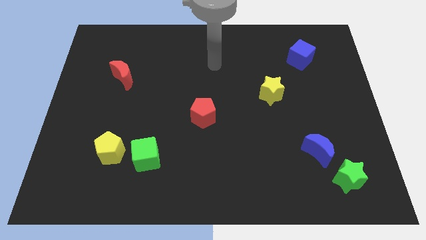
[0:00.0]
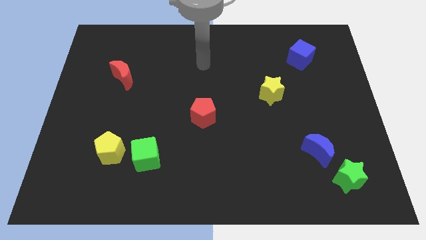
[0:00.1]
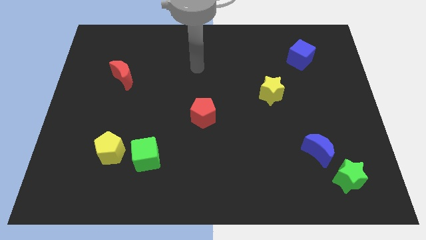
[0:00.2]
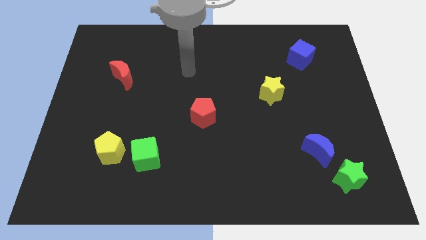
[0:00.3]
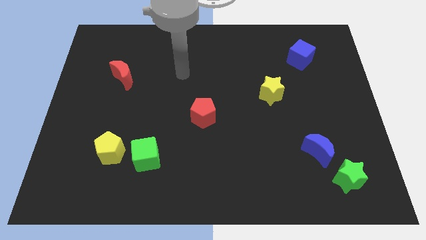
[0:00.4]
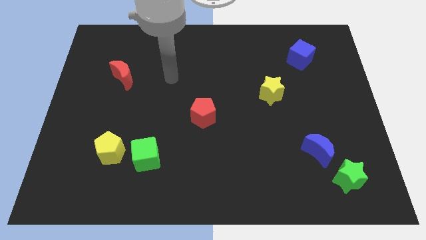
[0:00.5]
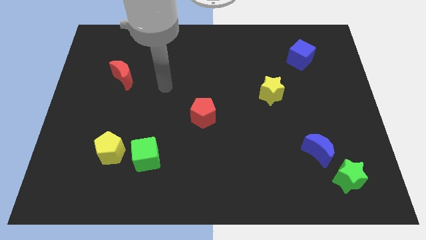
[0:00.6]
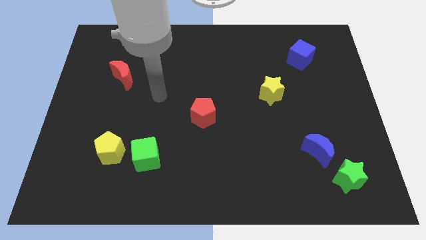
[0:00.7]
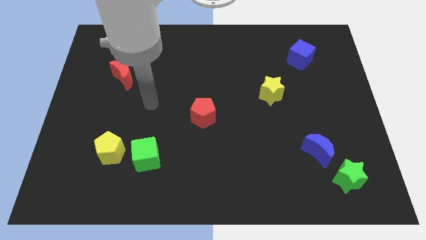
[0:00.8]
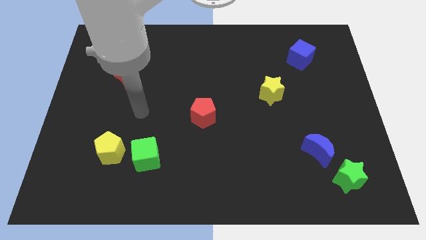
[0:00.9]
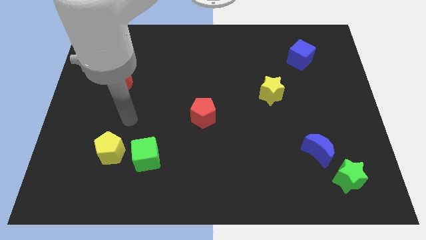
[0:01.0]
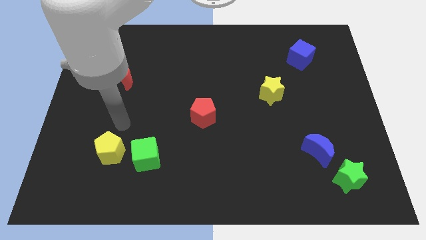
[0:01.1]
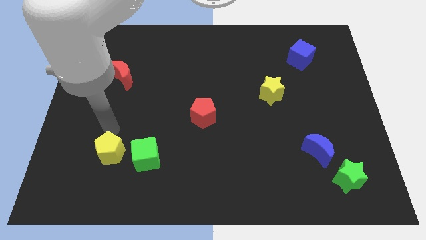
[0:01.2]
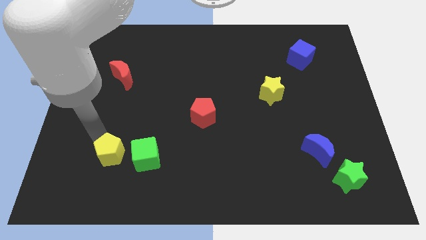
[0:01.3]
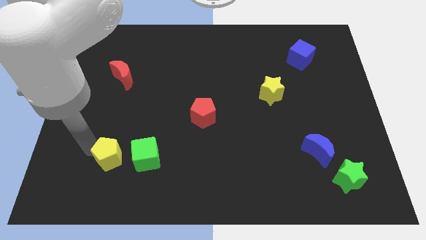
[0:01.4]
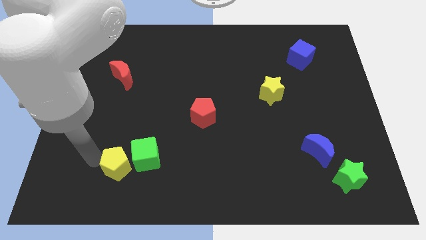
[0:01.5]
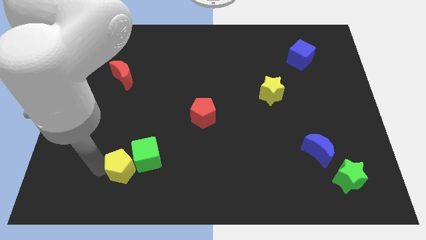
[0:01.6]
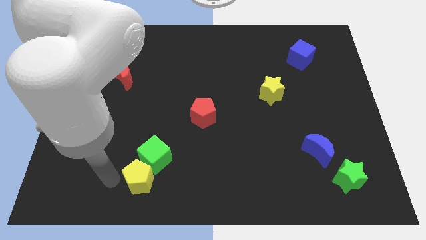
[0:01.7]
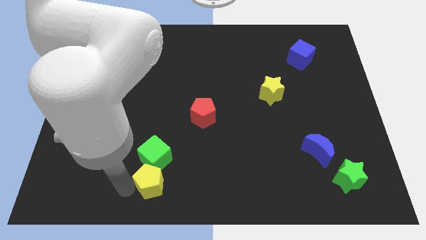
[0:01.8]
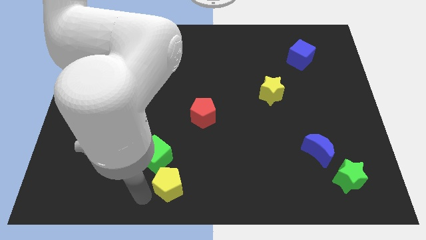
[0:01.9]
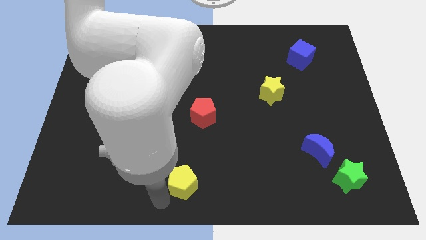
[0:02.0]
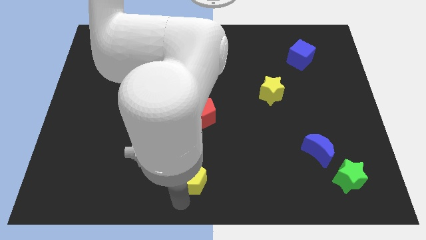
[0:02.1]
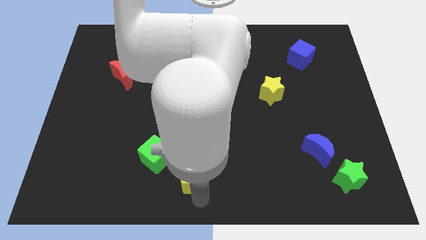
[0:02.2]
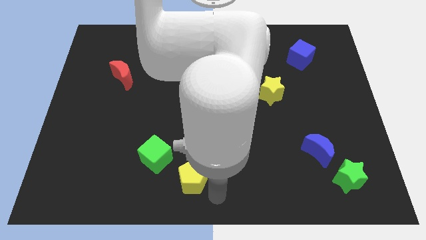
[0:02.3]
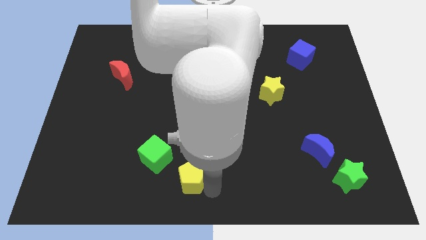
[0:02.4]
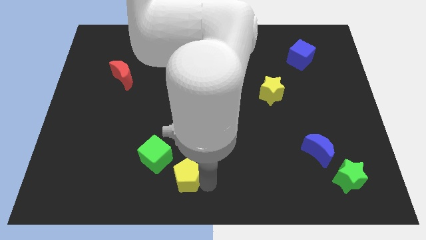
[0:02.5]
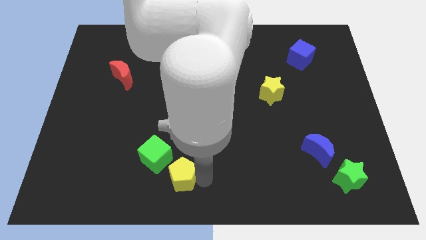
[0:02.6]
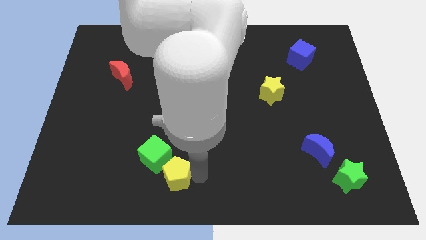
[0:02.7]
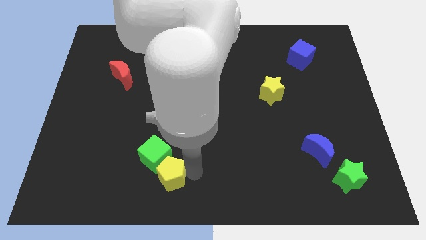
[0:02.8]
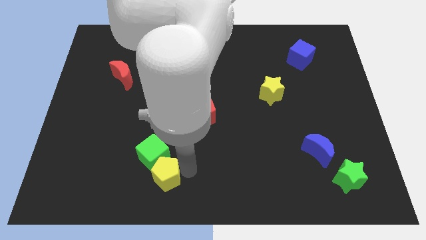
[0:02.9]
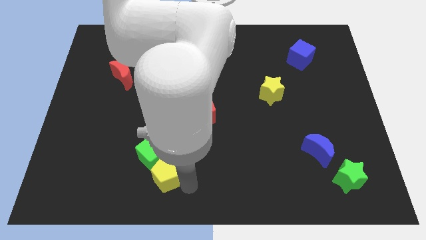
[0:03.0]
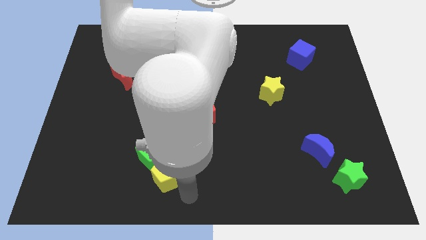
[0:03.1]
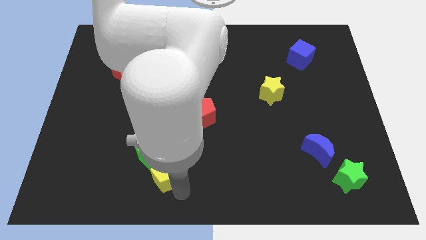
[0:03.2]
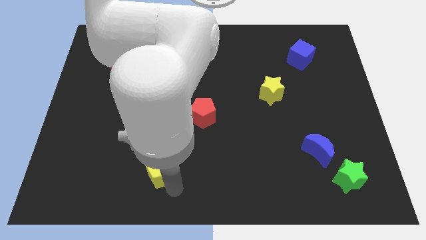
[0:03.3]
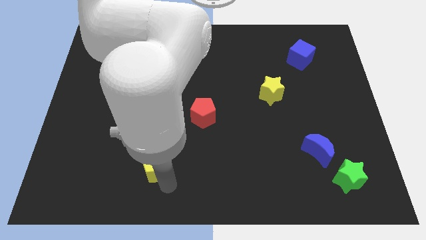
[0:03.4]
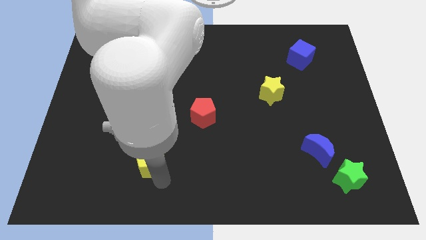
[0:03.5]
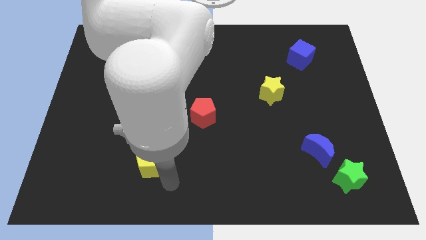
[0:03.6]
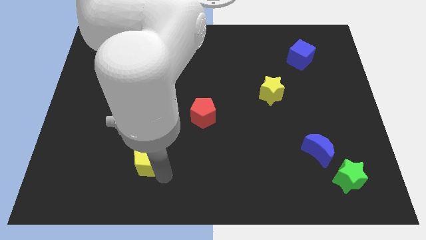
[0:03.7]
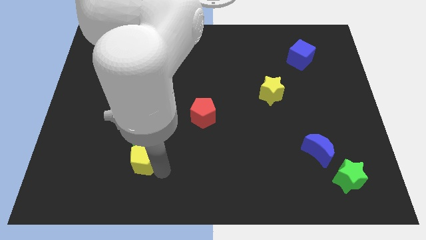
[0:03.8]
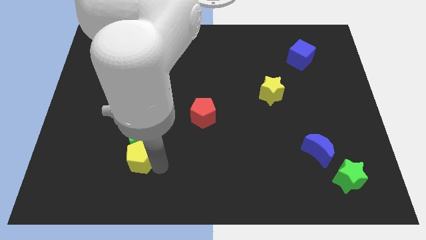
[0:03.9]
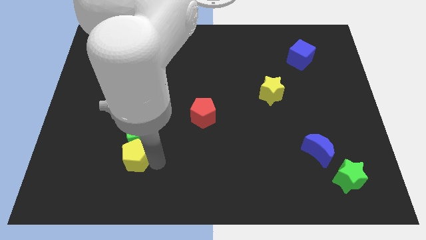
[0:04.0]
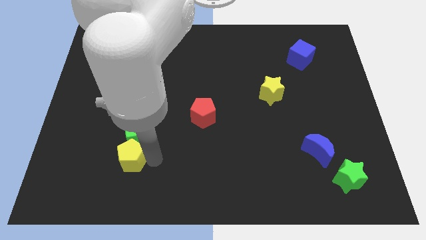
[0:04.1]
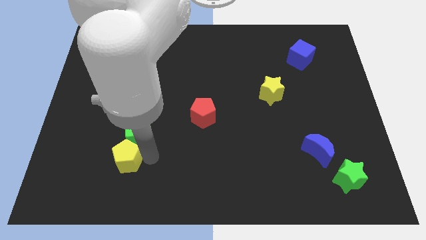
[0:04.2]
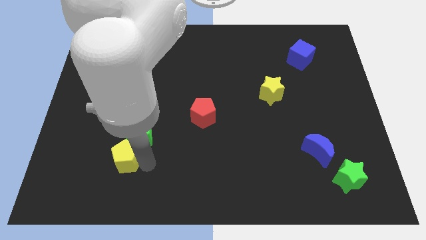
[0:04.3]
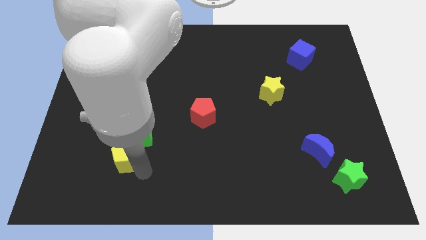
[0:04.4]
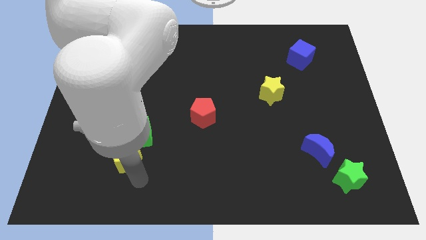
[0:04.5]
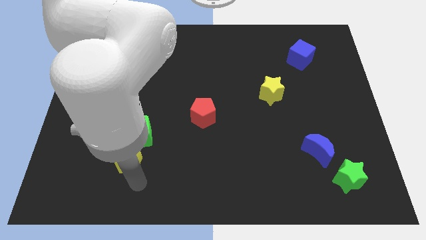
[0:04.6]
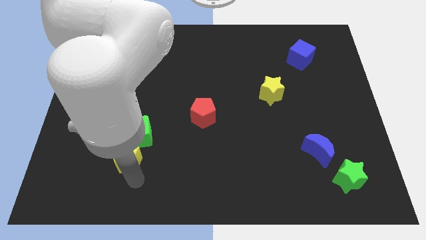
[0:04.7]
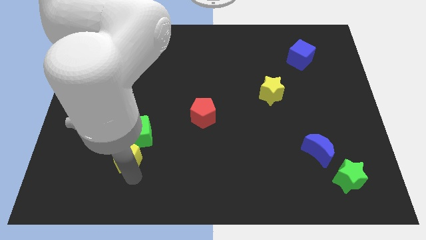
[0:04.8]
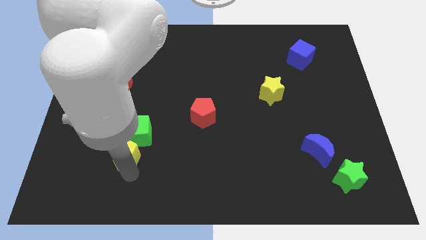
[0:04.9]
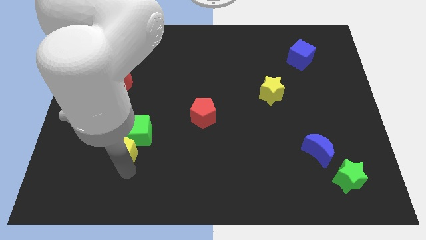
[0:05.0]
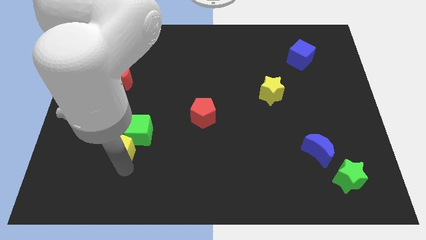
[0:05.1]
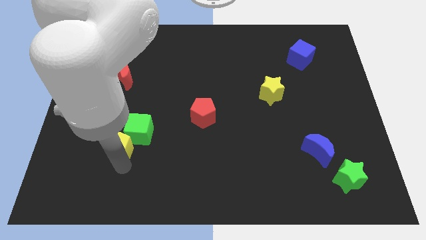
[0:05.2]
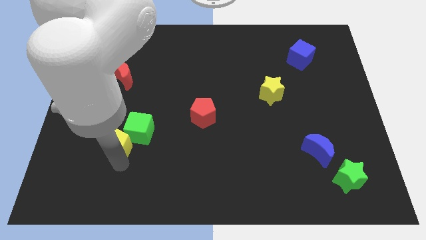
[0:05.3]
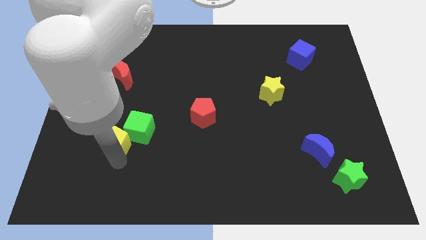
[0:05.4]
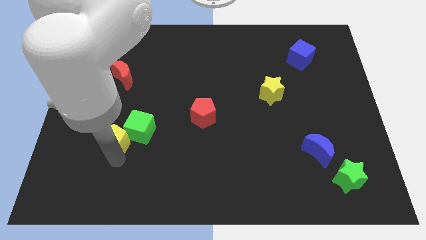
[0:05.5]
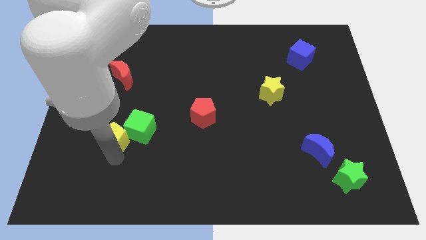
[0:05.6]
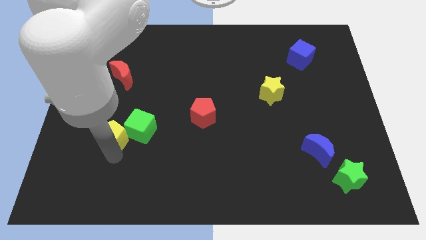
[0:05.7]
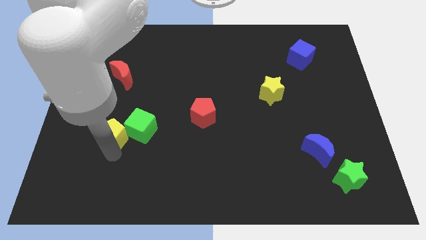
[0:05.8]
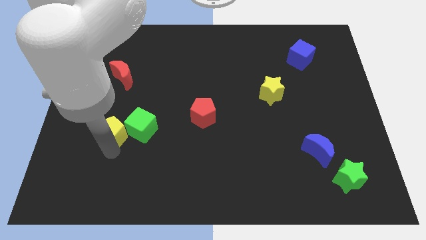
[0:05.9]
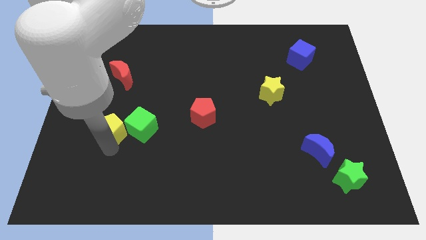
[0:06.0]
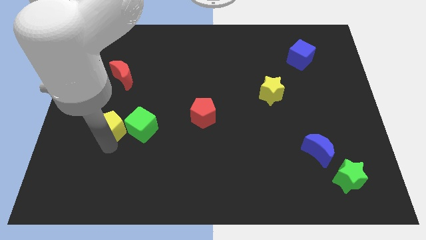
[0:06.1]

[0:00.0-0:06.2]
put the yellow pentagon to the bottom of the red moon
